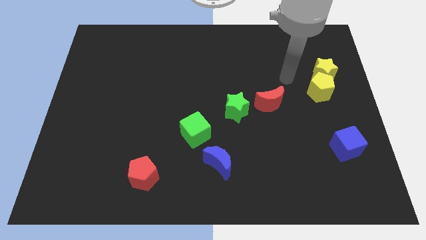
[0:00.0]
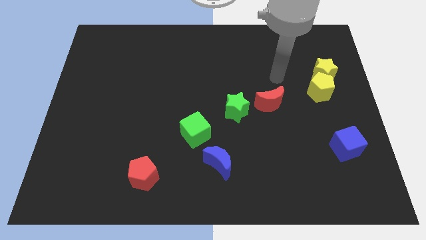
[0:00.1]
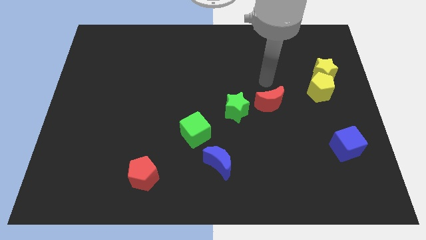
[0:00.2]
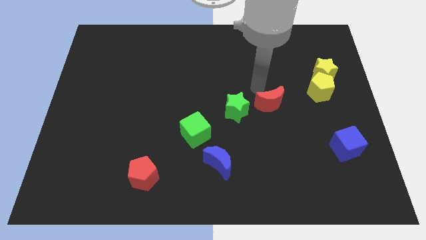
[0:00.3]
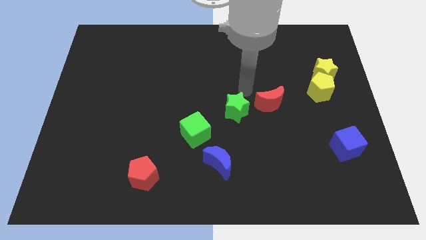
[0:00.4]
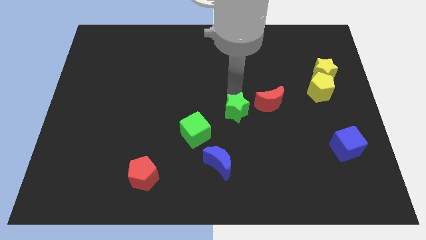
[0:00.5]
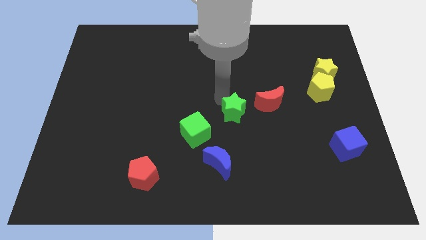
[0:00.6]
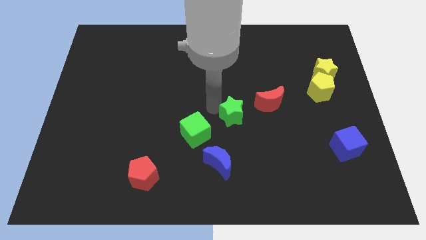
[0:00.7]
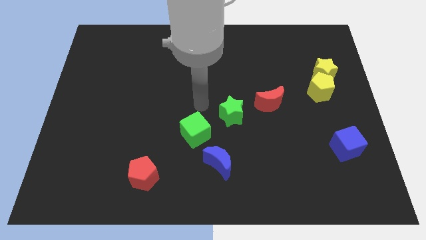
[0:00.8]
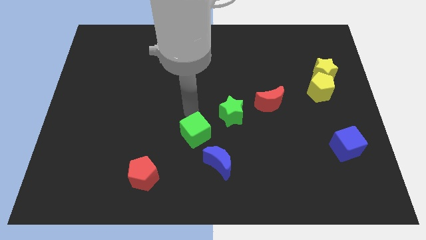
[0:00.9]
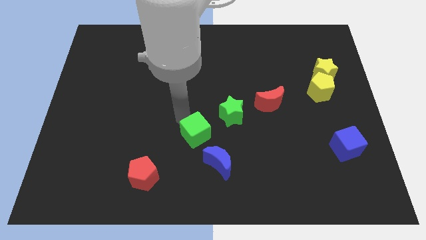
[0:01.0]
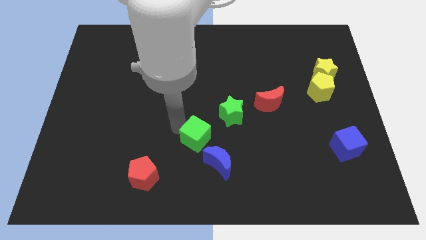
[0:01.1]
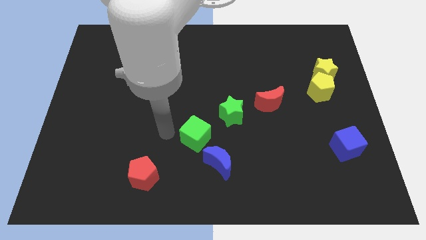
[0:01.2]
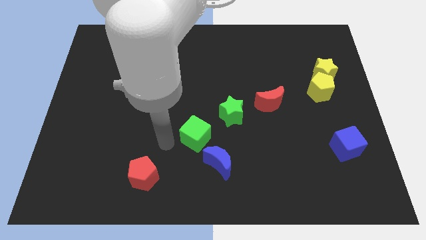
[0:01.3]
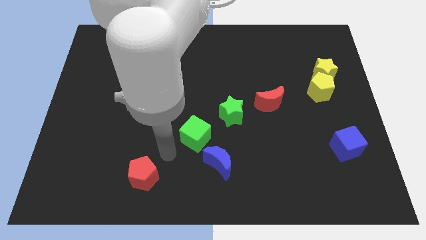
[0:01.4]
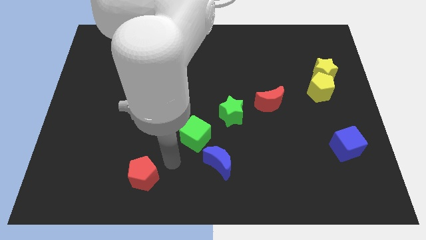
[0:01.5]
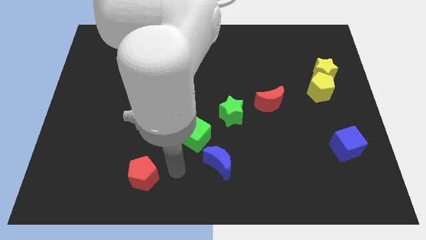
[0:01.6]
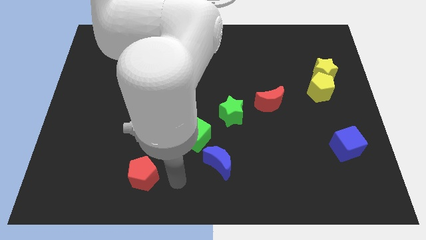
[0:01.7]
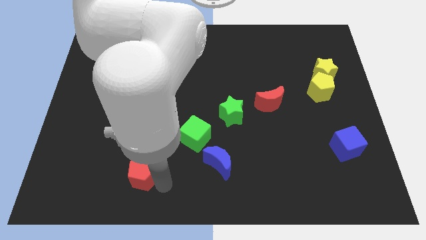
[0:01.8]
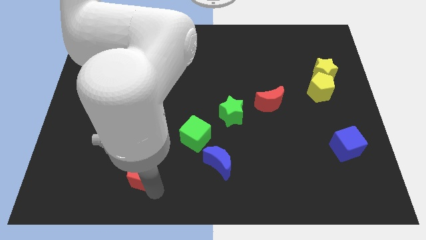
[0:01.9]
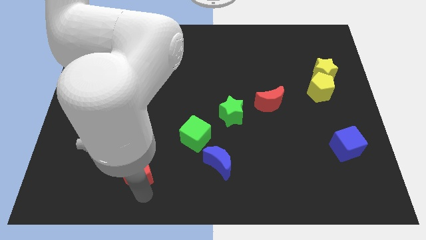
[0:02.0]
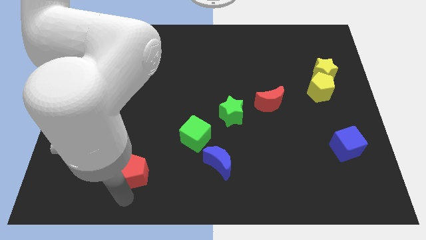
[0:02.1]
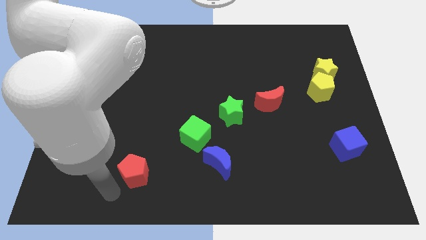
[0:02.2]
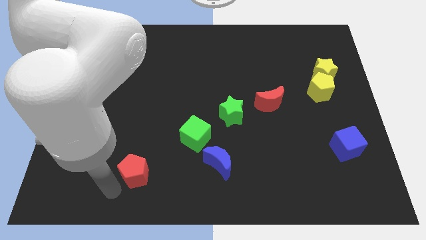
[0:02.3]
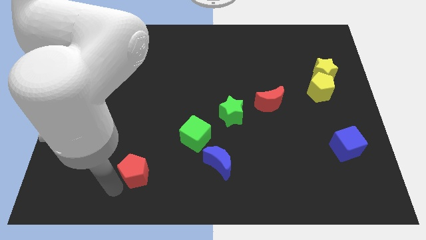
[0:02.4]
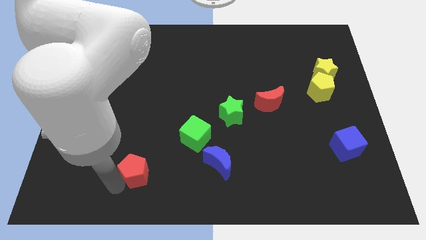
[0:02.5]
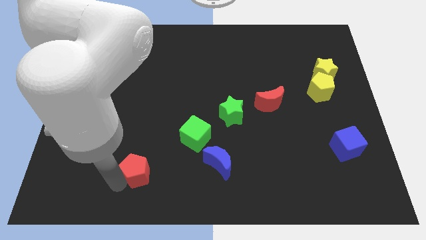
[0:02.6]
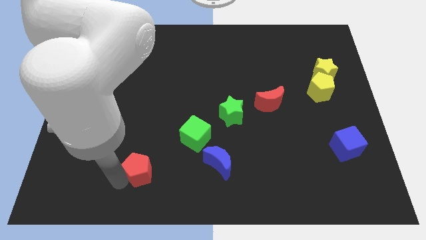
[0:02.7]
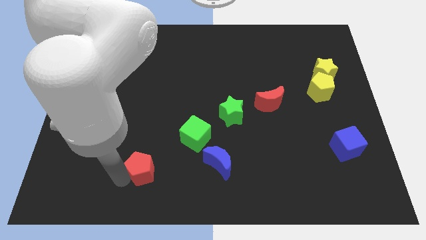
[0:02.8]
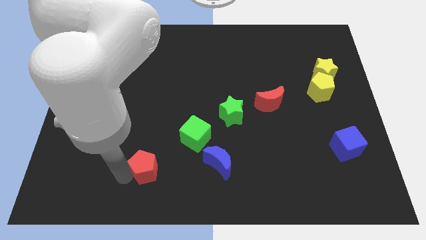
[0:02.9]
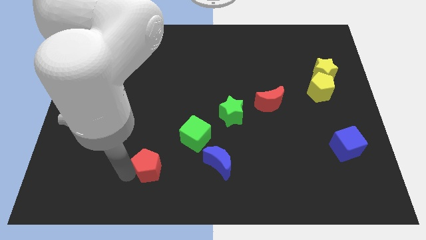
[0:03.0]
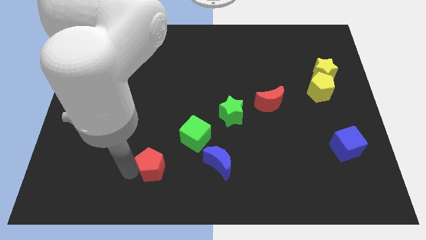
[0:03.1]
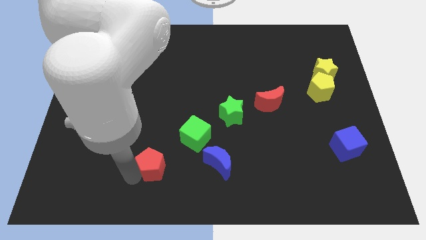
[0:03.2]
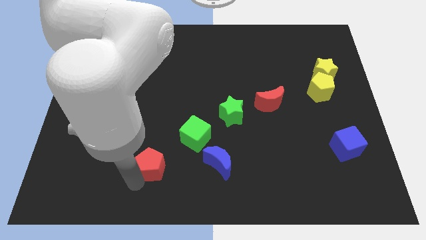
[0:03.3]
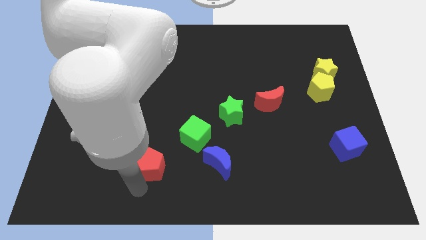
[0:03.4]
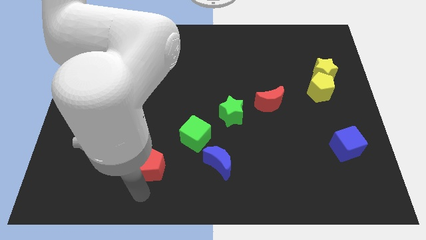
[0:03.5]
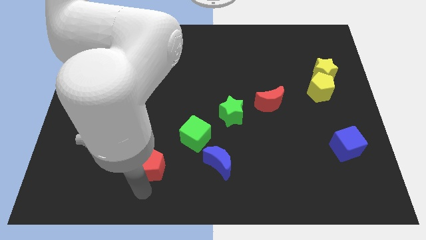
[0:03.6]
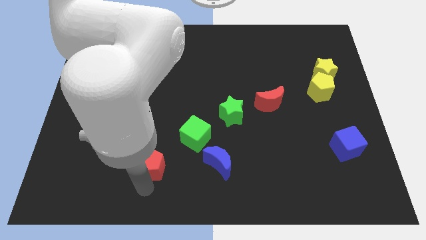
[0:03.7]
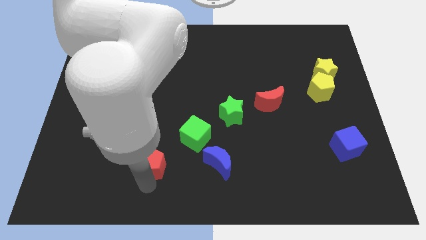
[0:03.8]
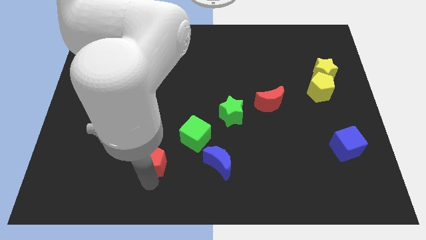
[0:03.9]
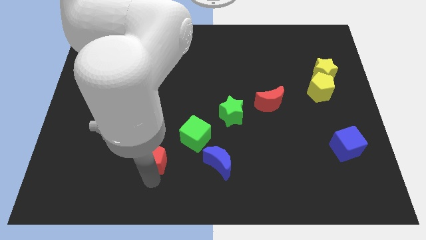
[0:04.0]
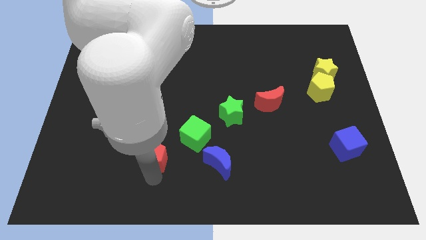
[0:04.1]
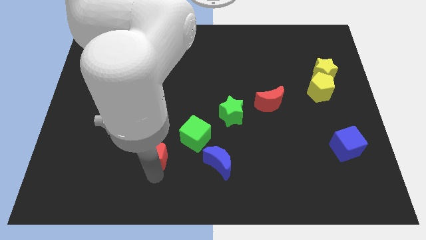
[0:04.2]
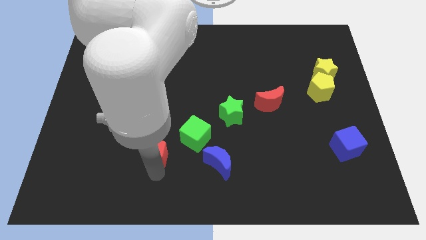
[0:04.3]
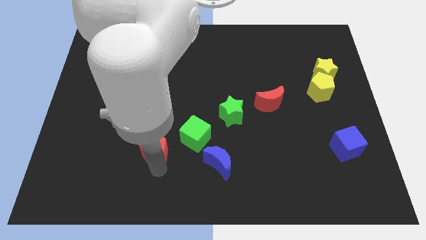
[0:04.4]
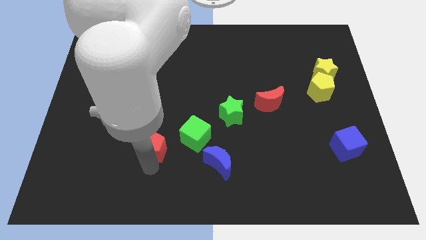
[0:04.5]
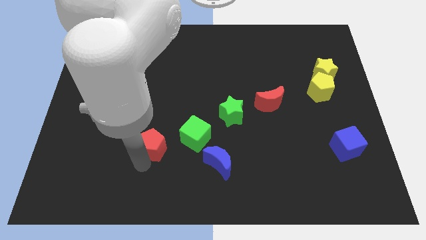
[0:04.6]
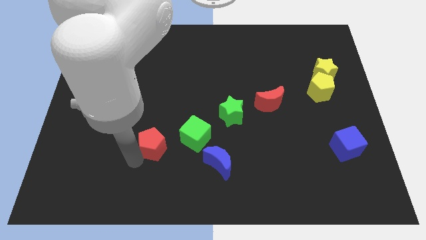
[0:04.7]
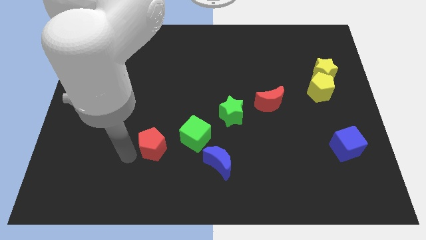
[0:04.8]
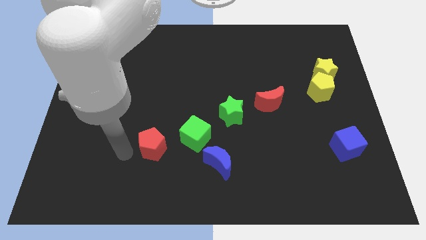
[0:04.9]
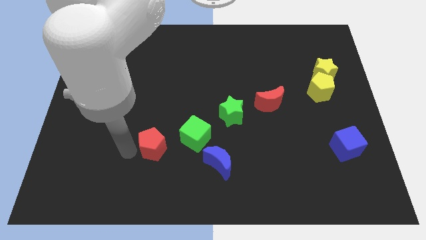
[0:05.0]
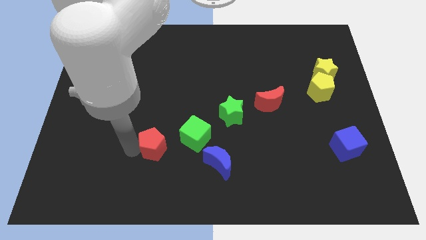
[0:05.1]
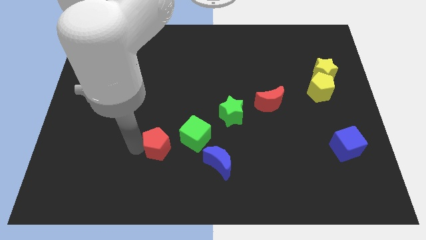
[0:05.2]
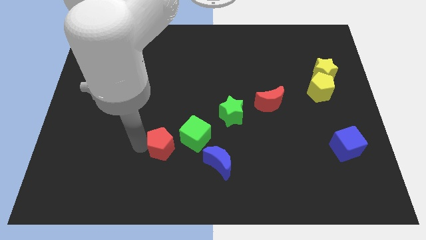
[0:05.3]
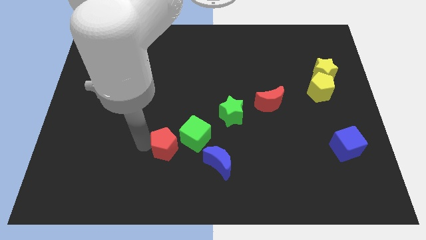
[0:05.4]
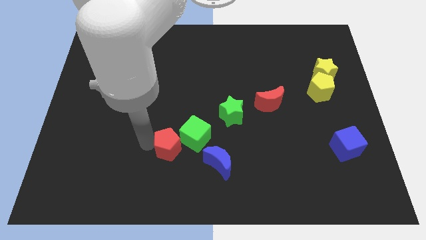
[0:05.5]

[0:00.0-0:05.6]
put the red pentagon next to the green cube

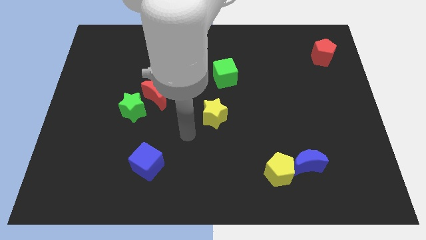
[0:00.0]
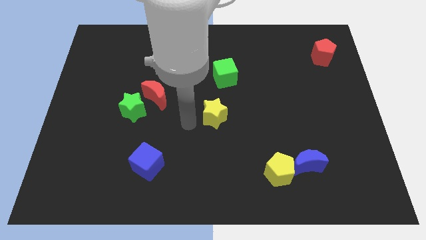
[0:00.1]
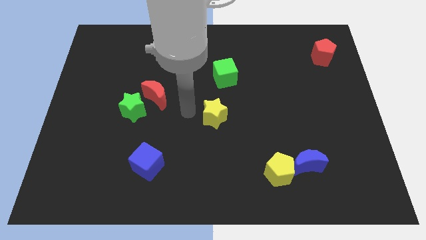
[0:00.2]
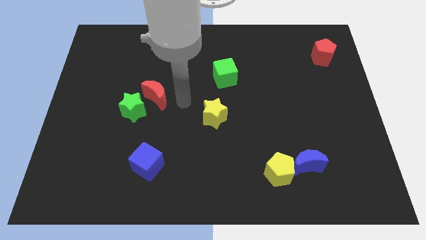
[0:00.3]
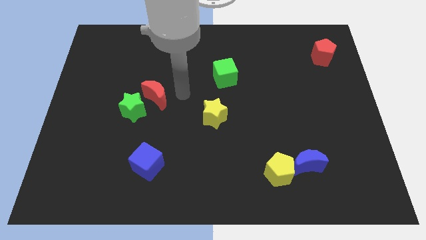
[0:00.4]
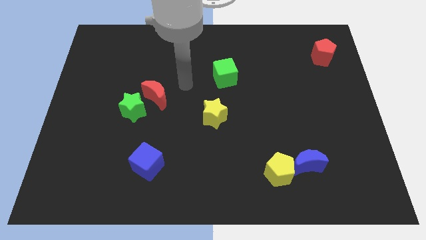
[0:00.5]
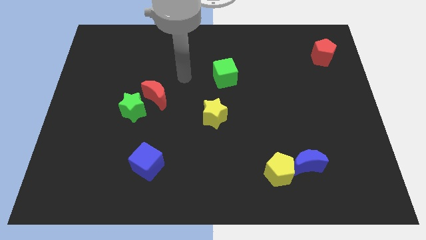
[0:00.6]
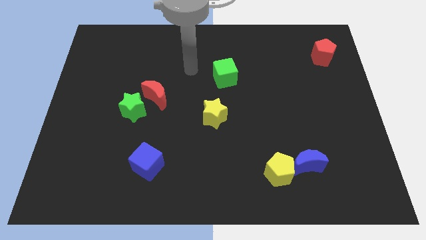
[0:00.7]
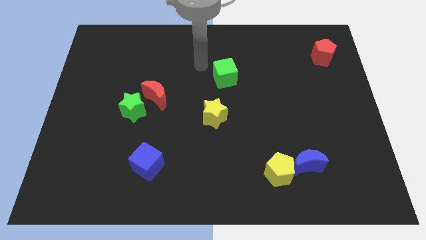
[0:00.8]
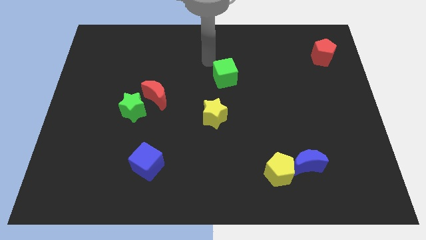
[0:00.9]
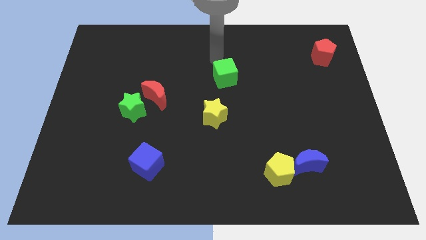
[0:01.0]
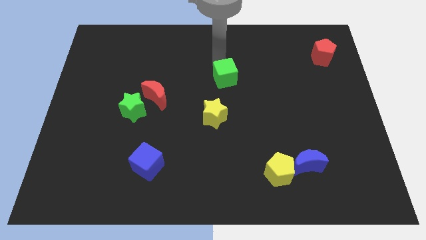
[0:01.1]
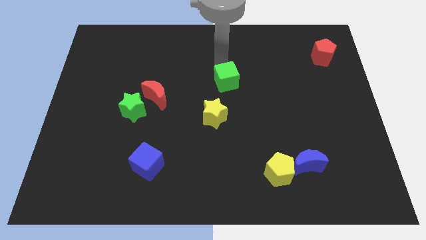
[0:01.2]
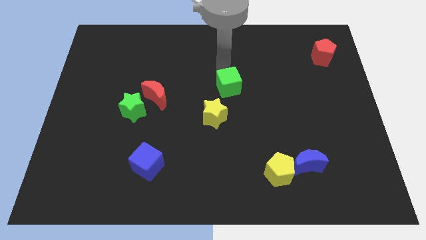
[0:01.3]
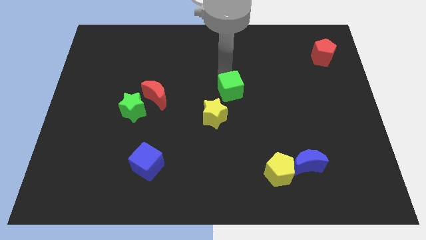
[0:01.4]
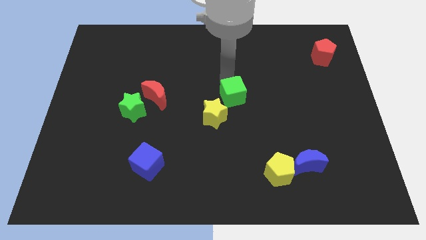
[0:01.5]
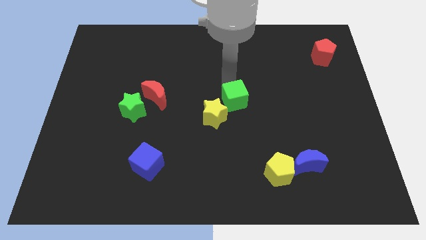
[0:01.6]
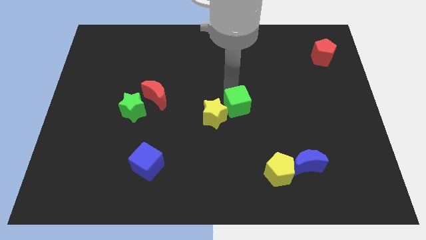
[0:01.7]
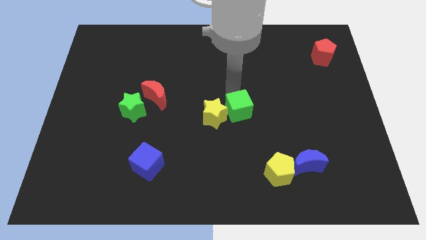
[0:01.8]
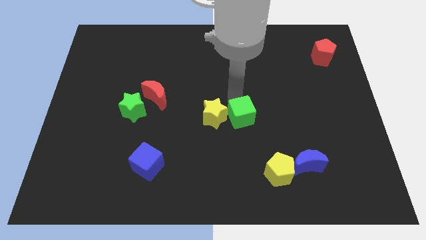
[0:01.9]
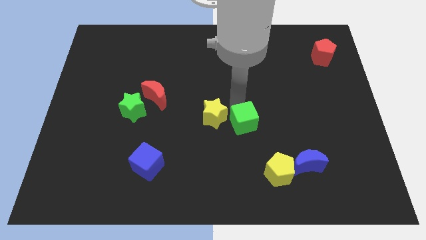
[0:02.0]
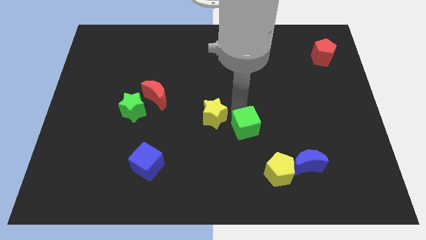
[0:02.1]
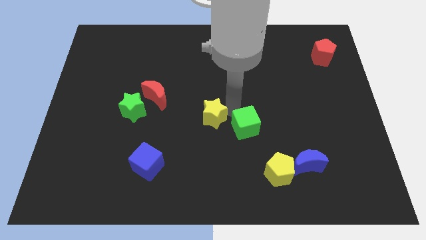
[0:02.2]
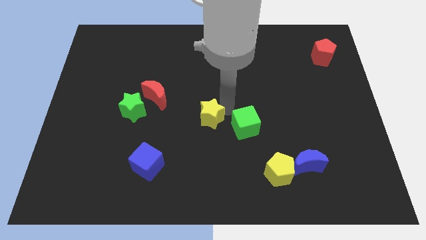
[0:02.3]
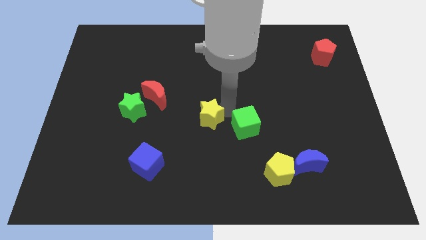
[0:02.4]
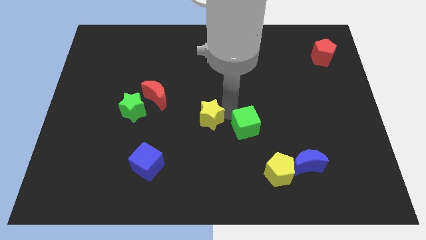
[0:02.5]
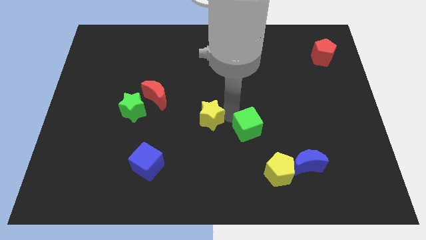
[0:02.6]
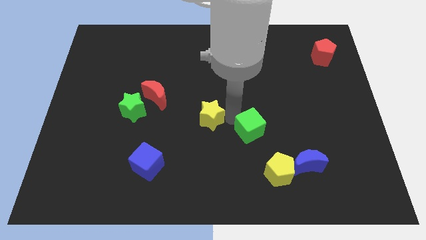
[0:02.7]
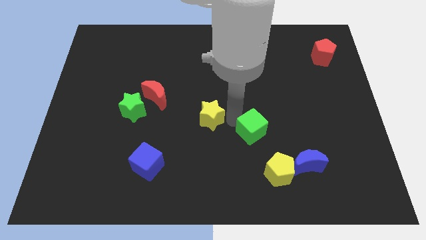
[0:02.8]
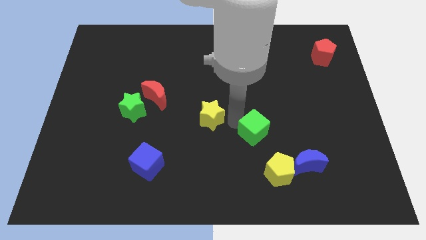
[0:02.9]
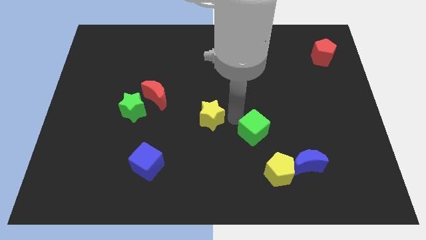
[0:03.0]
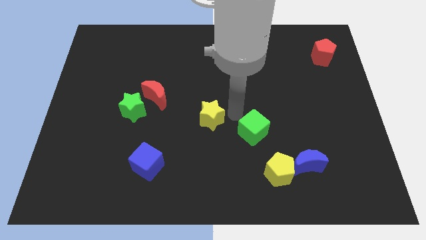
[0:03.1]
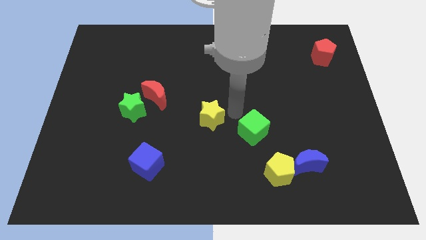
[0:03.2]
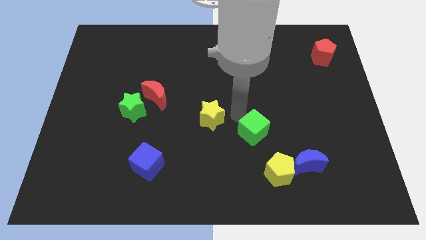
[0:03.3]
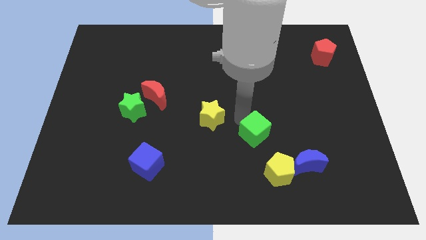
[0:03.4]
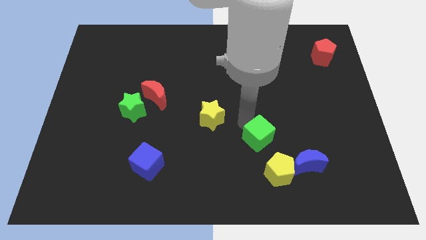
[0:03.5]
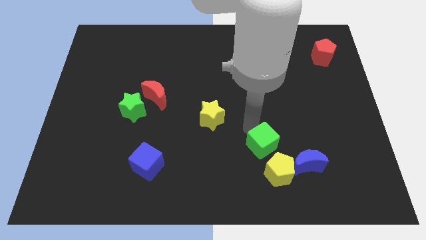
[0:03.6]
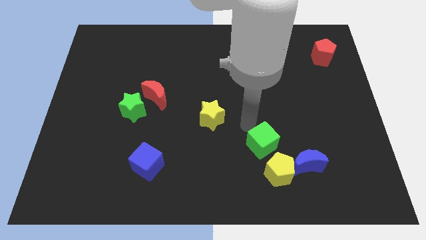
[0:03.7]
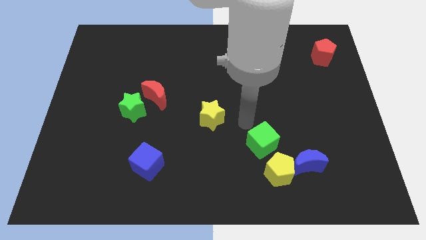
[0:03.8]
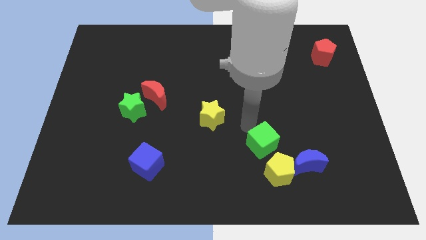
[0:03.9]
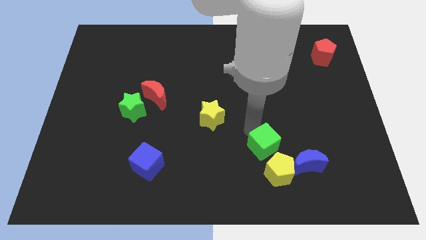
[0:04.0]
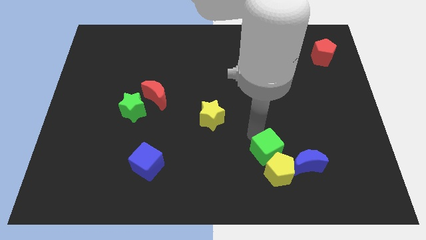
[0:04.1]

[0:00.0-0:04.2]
push the green cube towards the yellow pentagon
